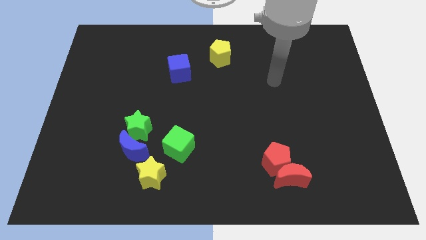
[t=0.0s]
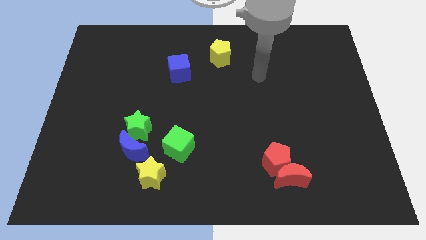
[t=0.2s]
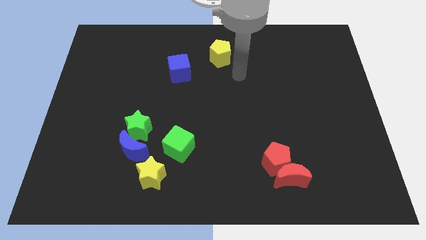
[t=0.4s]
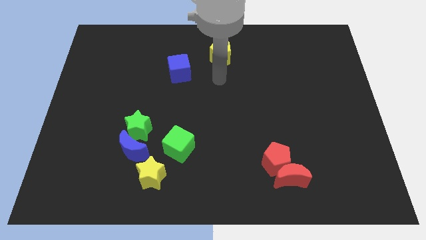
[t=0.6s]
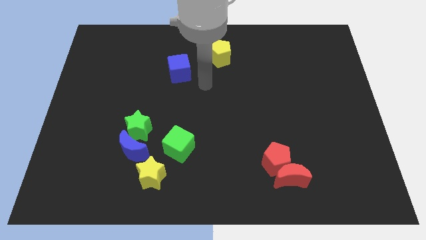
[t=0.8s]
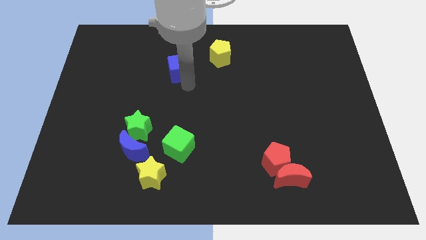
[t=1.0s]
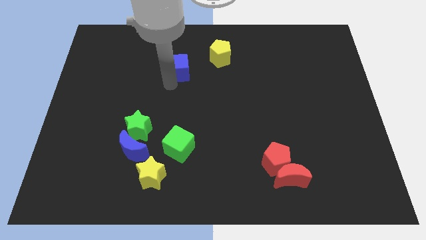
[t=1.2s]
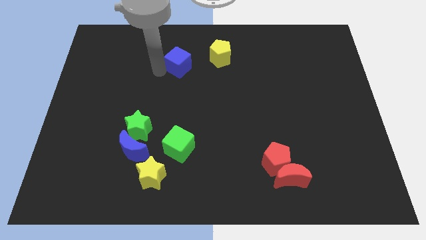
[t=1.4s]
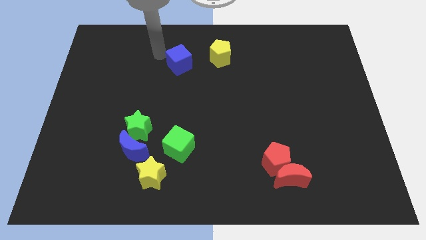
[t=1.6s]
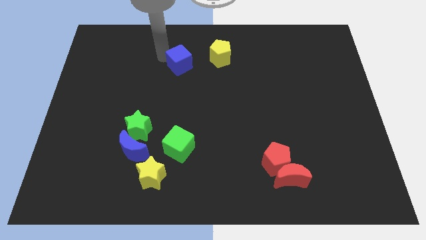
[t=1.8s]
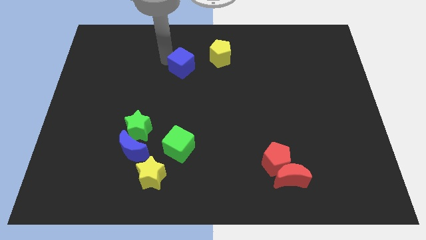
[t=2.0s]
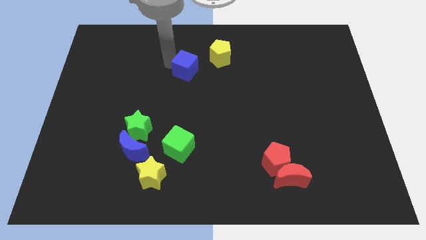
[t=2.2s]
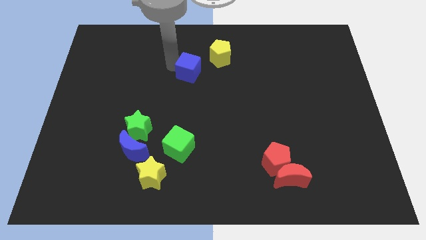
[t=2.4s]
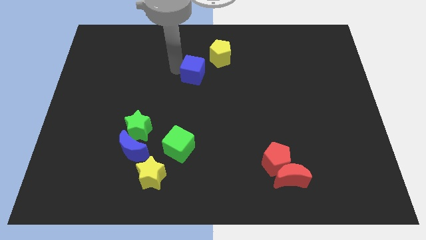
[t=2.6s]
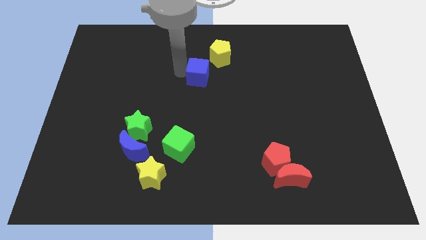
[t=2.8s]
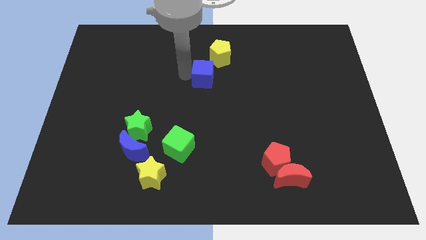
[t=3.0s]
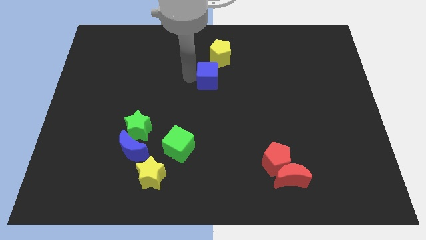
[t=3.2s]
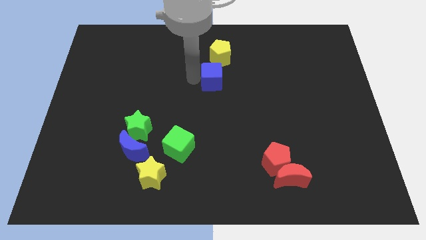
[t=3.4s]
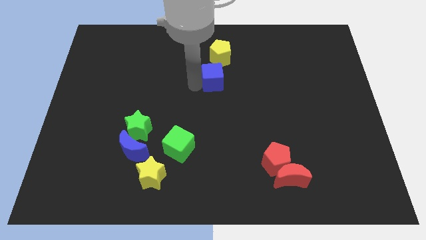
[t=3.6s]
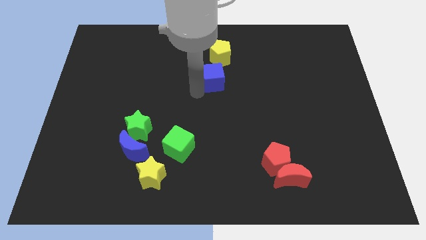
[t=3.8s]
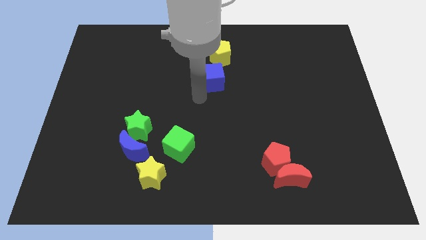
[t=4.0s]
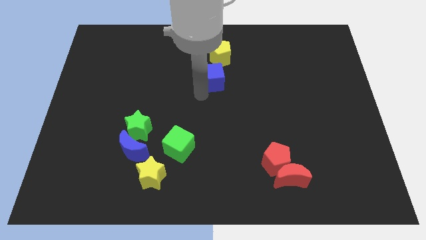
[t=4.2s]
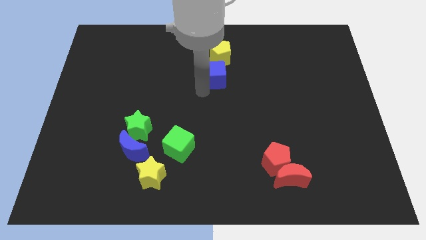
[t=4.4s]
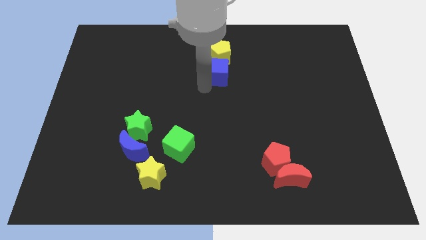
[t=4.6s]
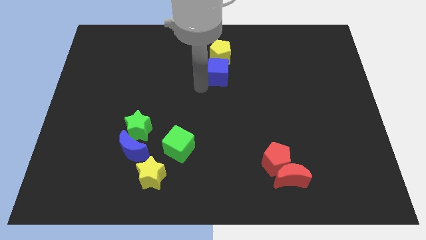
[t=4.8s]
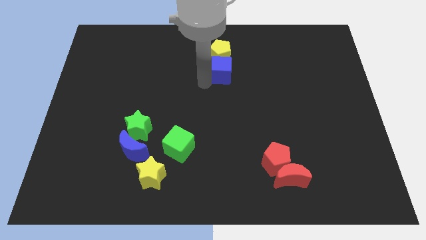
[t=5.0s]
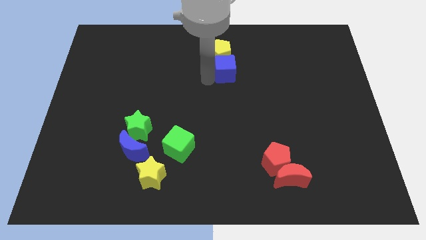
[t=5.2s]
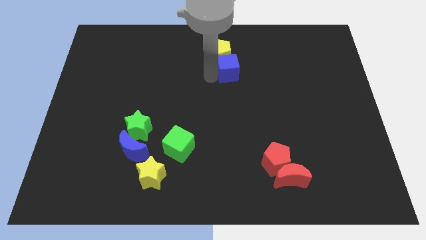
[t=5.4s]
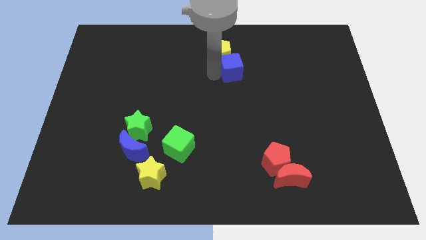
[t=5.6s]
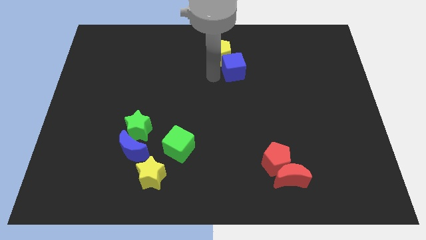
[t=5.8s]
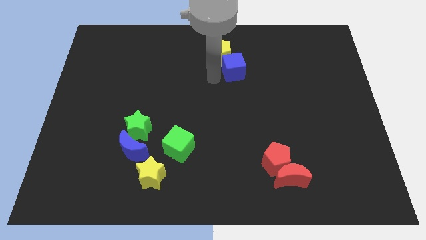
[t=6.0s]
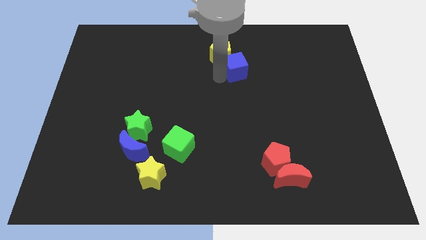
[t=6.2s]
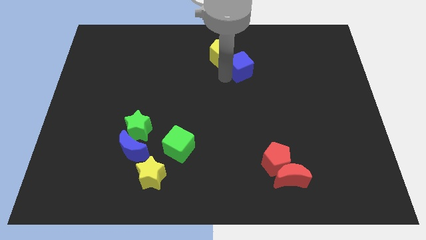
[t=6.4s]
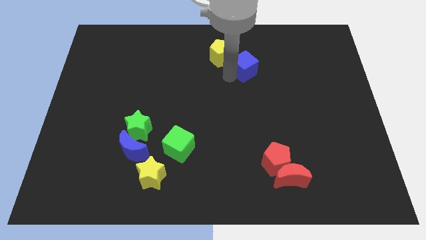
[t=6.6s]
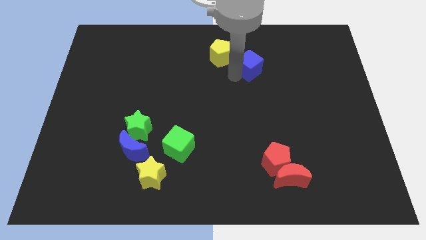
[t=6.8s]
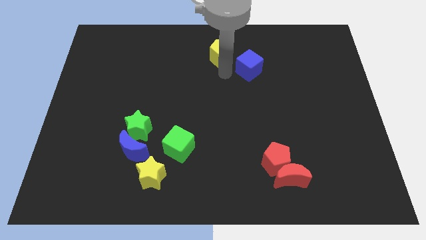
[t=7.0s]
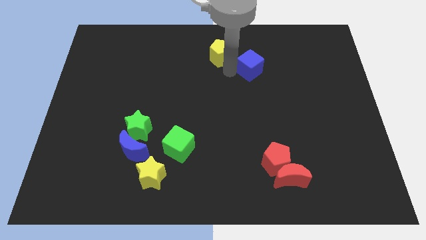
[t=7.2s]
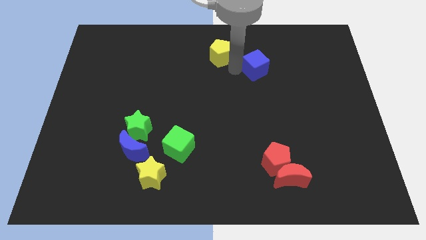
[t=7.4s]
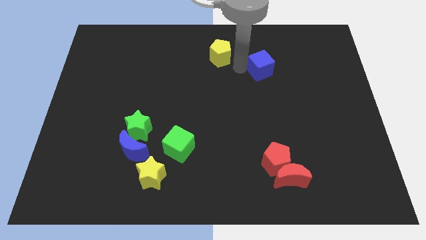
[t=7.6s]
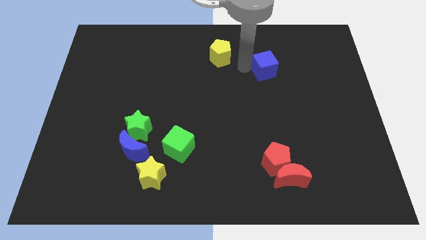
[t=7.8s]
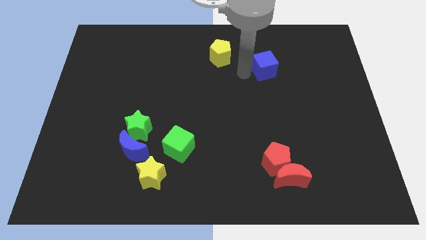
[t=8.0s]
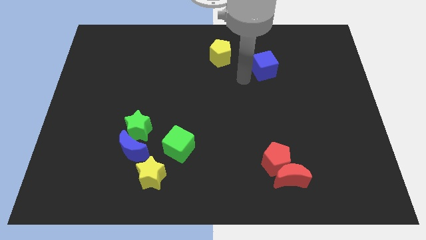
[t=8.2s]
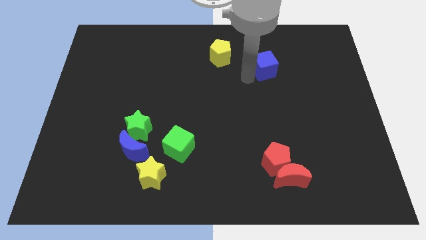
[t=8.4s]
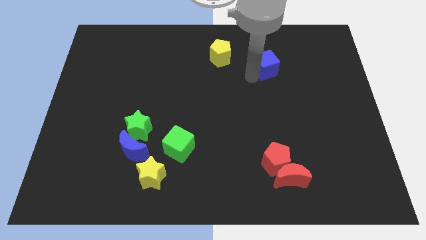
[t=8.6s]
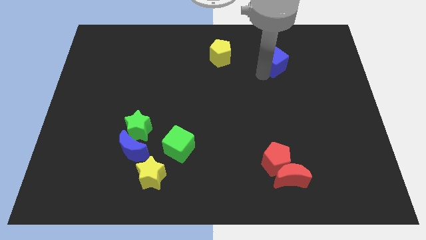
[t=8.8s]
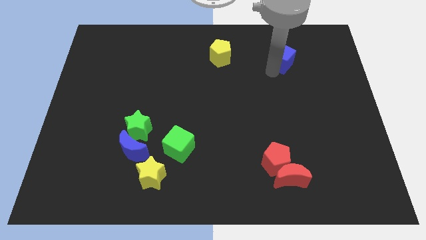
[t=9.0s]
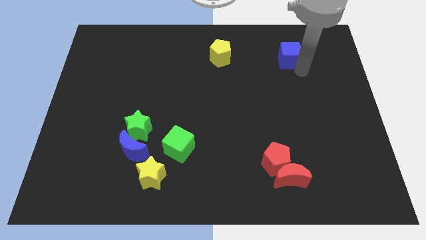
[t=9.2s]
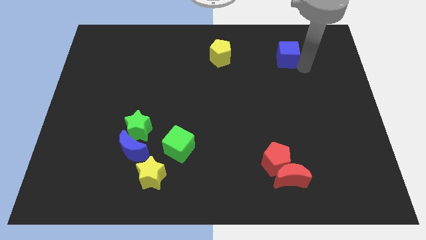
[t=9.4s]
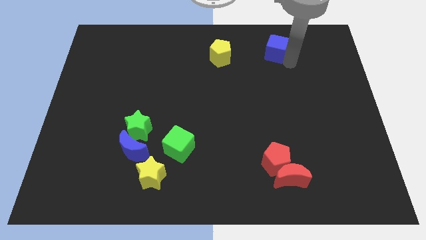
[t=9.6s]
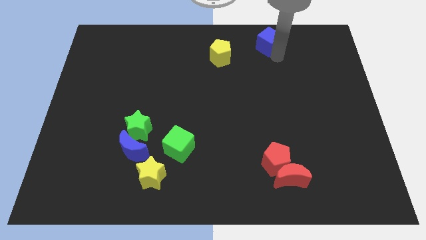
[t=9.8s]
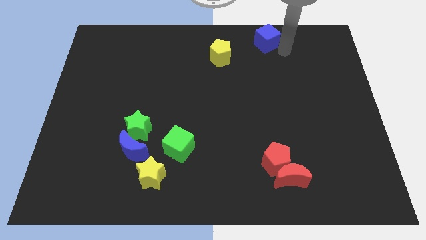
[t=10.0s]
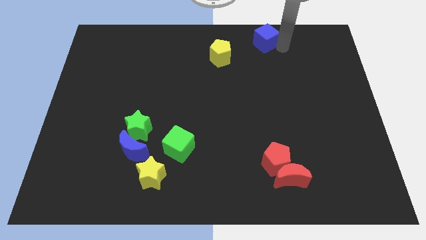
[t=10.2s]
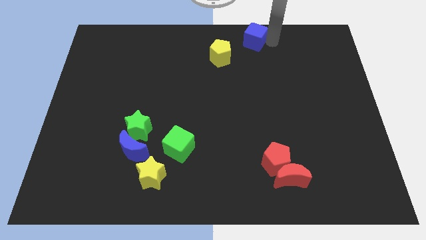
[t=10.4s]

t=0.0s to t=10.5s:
move the blue cube to the top side

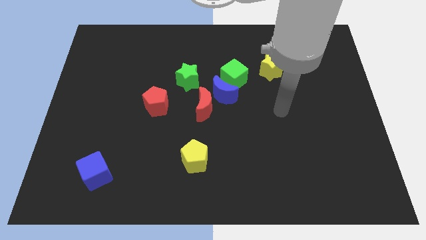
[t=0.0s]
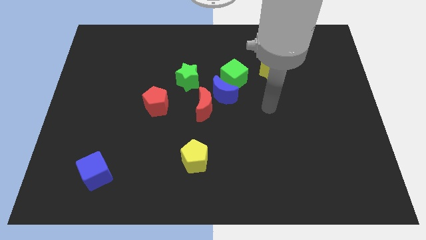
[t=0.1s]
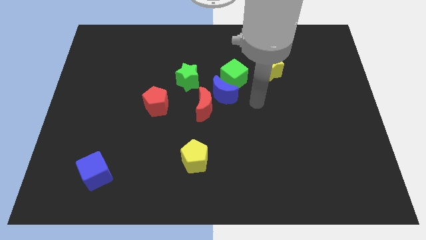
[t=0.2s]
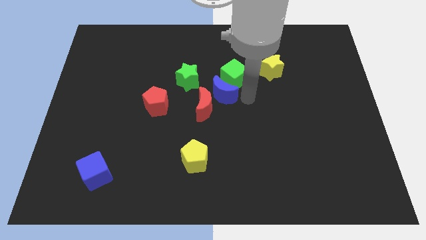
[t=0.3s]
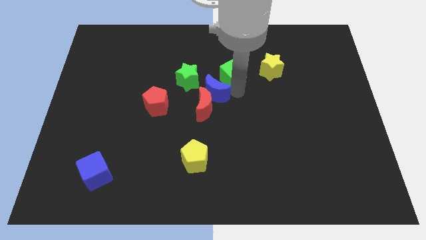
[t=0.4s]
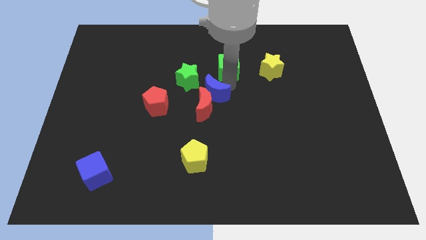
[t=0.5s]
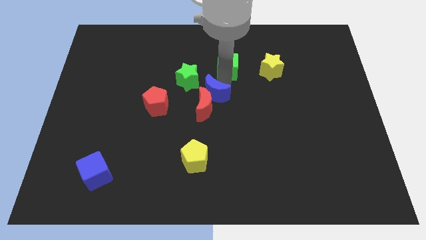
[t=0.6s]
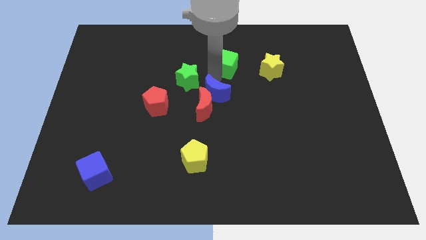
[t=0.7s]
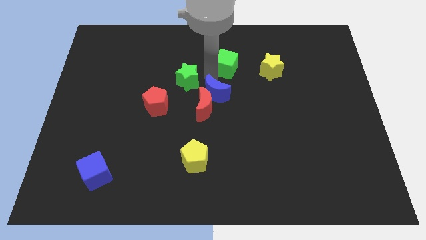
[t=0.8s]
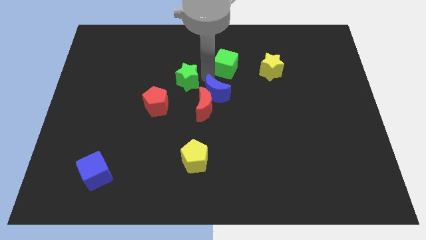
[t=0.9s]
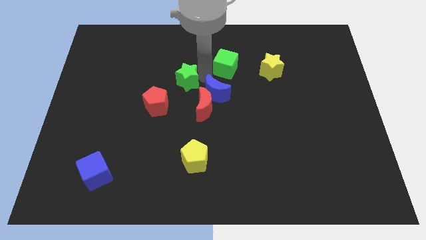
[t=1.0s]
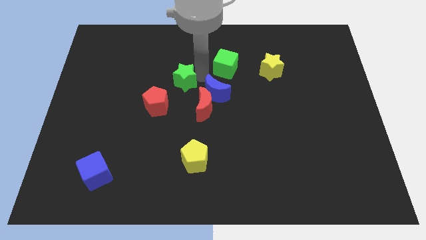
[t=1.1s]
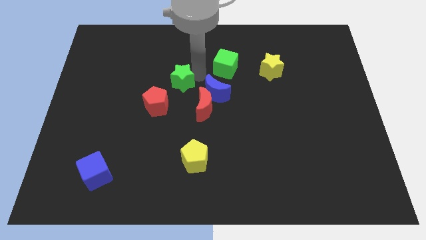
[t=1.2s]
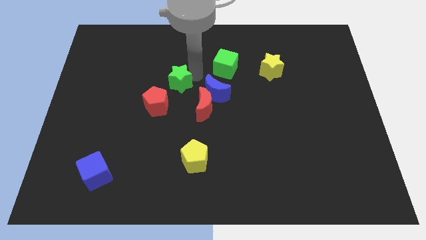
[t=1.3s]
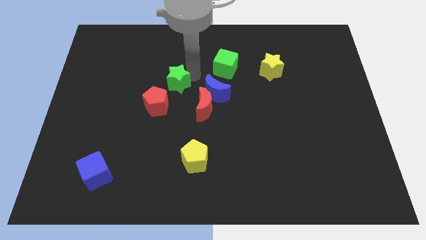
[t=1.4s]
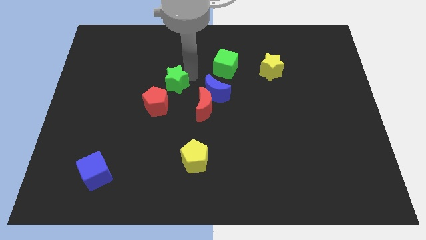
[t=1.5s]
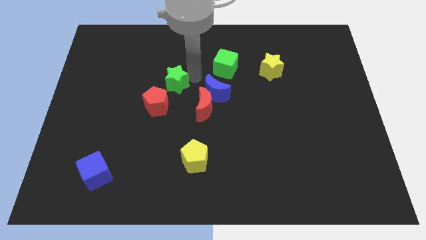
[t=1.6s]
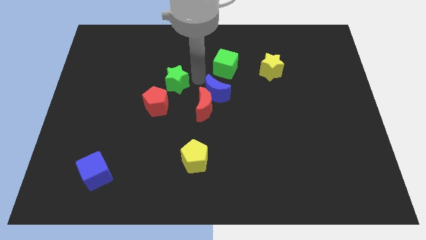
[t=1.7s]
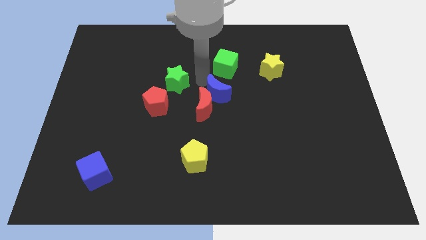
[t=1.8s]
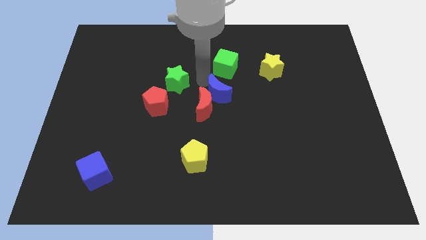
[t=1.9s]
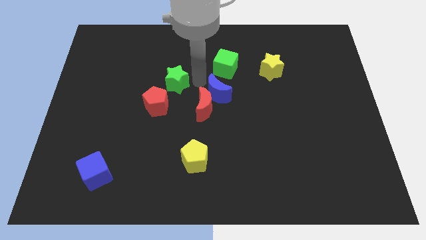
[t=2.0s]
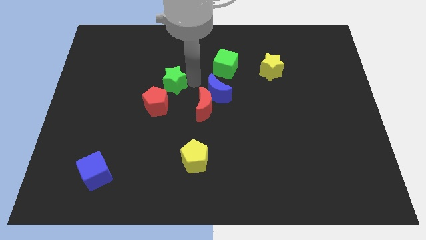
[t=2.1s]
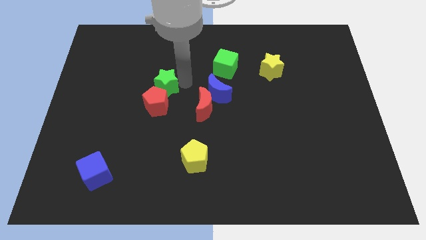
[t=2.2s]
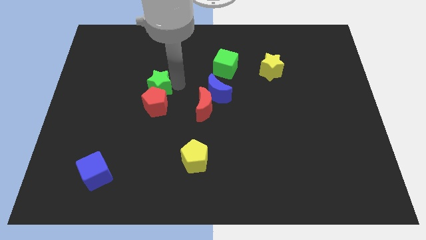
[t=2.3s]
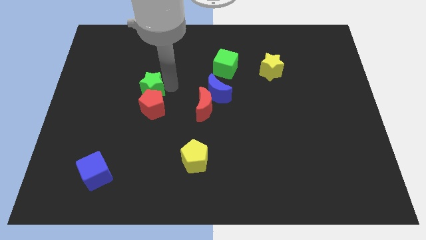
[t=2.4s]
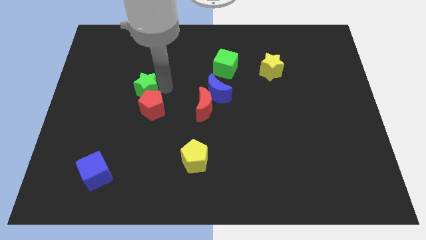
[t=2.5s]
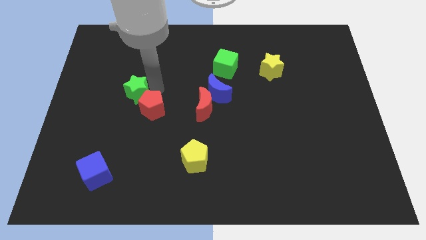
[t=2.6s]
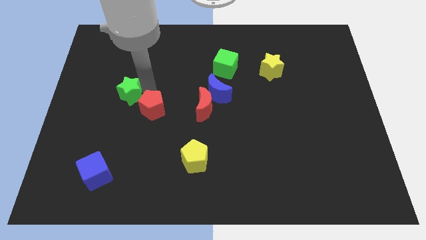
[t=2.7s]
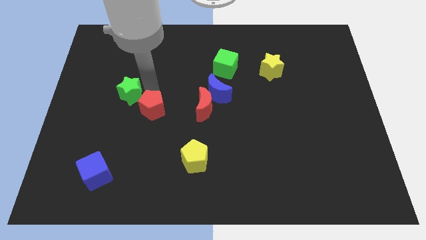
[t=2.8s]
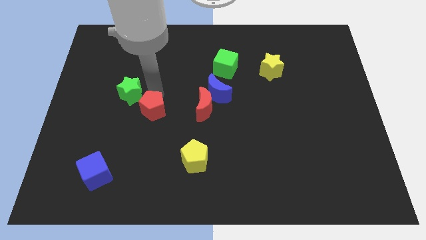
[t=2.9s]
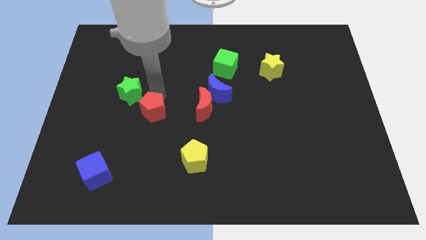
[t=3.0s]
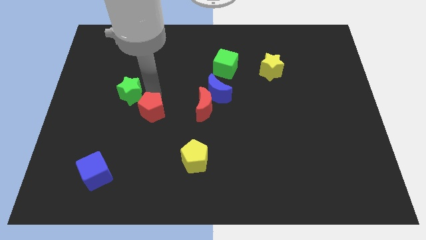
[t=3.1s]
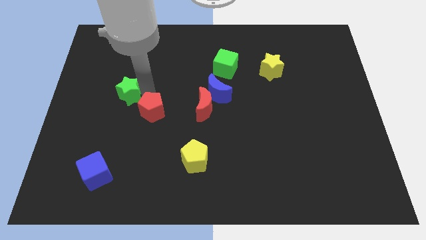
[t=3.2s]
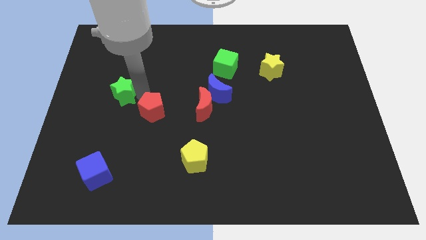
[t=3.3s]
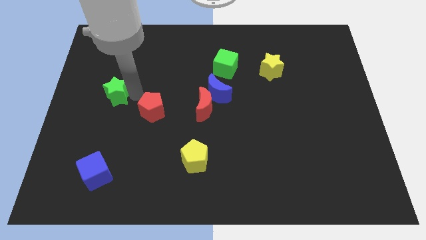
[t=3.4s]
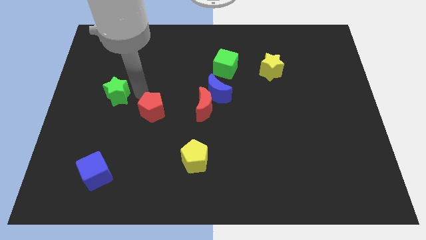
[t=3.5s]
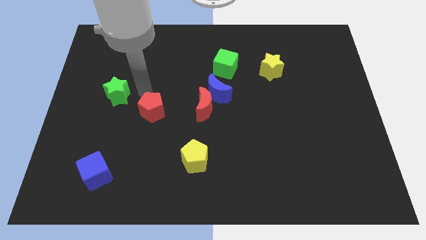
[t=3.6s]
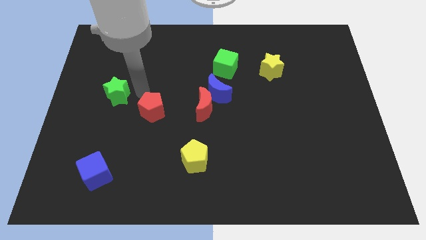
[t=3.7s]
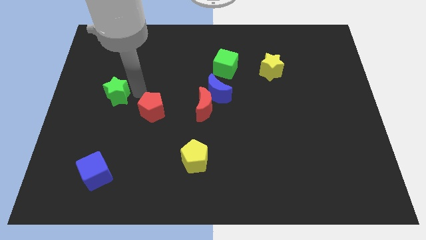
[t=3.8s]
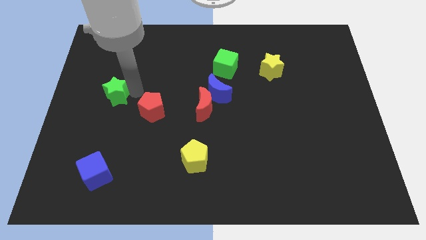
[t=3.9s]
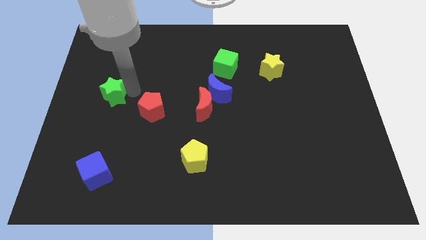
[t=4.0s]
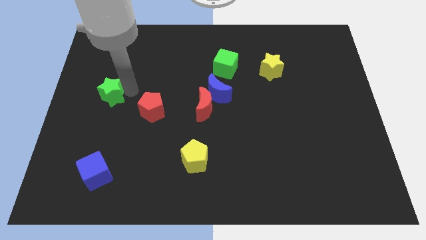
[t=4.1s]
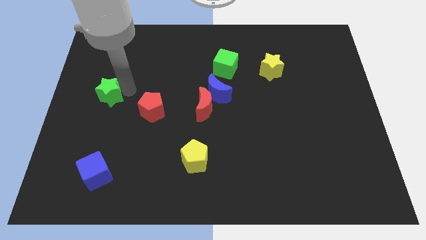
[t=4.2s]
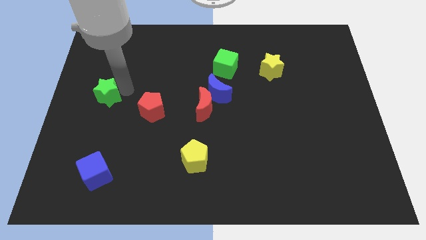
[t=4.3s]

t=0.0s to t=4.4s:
push the green star to the left side of the board
